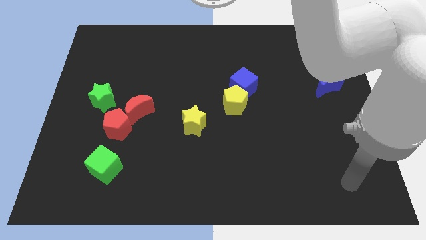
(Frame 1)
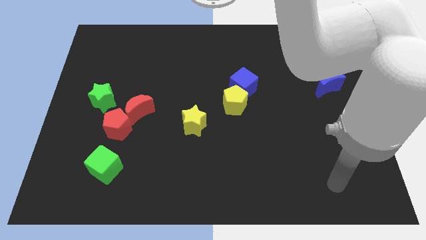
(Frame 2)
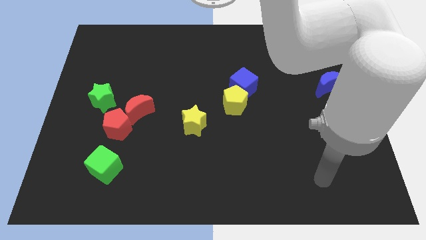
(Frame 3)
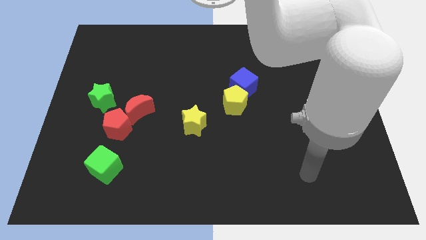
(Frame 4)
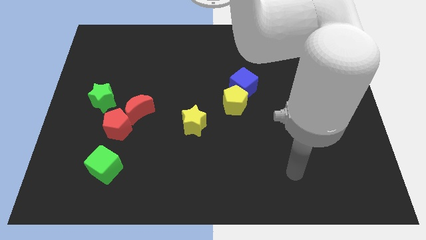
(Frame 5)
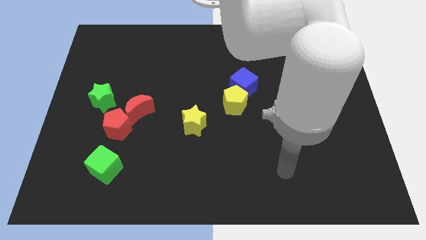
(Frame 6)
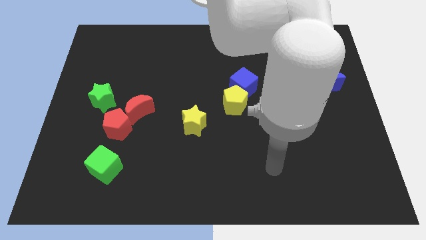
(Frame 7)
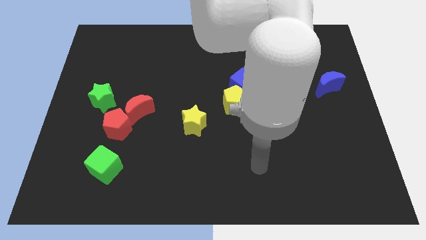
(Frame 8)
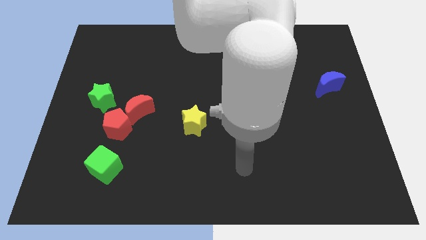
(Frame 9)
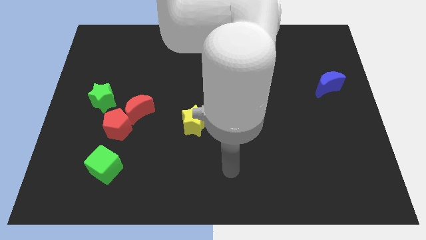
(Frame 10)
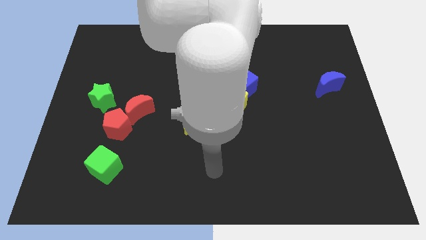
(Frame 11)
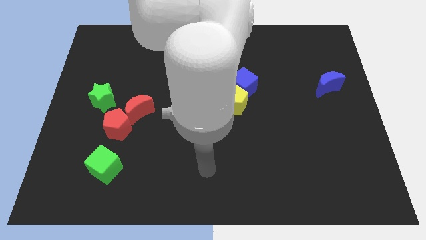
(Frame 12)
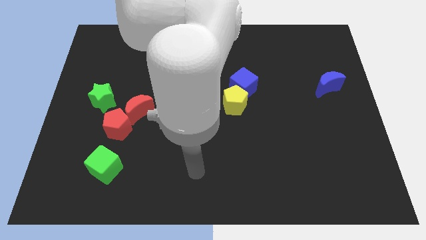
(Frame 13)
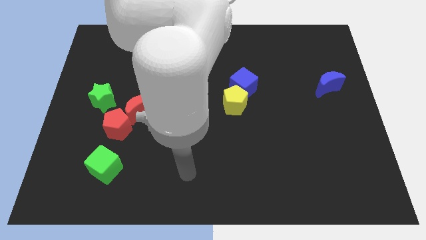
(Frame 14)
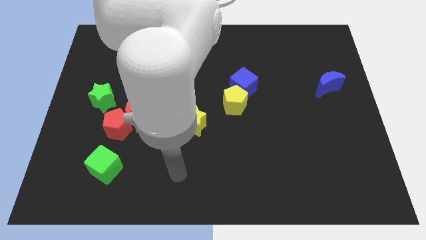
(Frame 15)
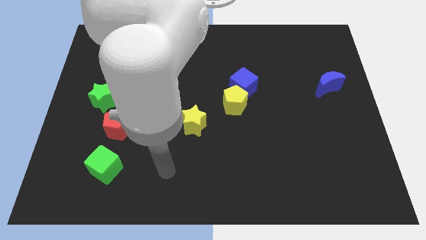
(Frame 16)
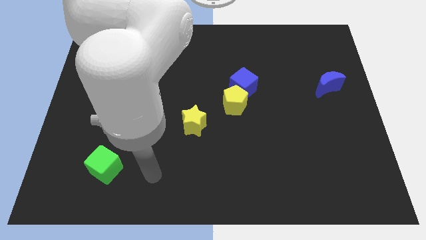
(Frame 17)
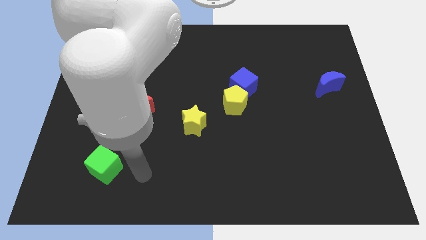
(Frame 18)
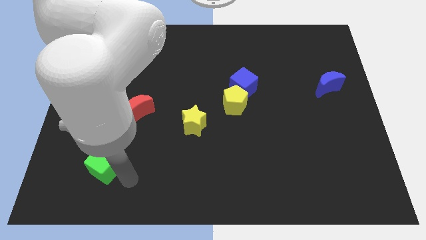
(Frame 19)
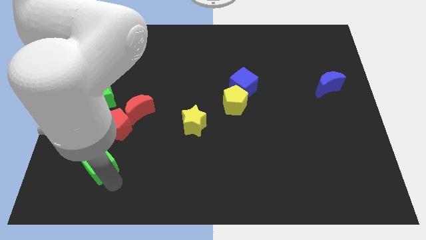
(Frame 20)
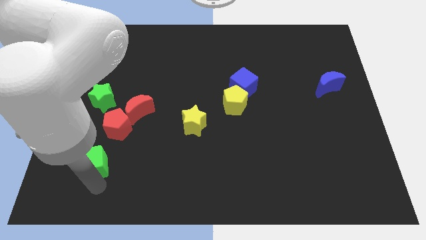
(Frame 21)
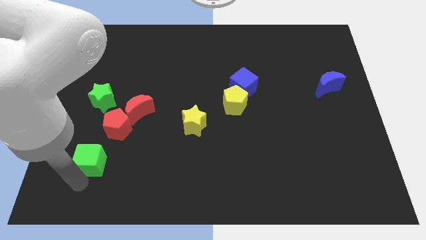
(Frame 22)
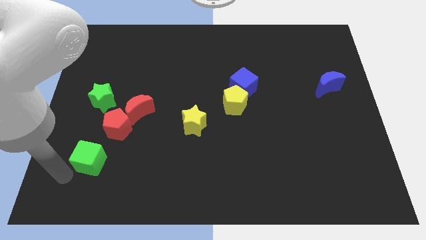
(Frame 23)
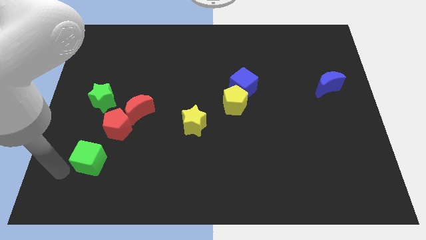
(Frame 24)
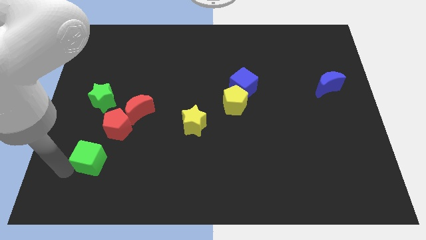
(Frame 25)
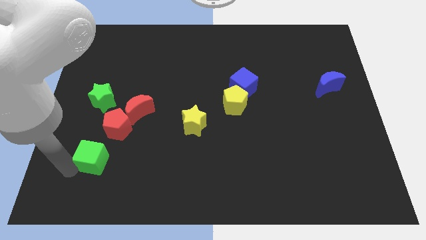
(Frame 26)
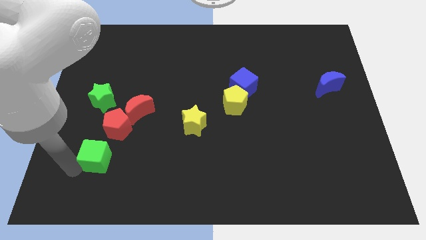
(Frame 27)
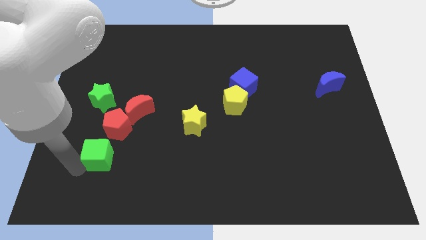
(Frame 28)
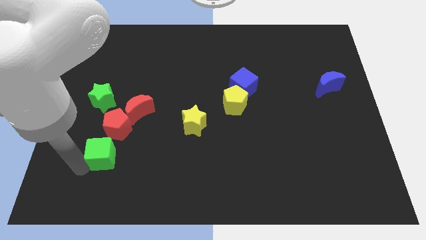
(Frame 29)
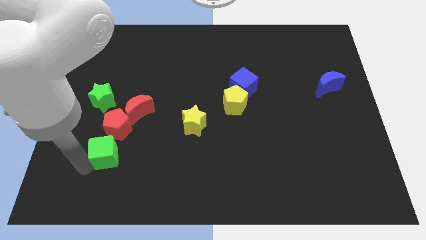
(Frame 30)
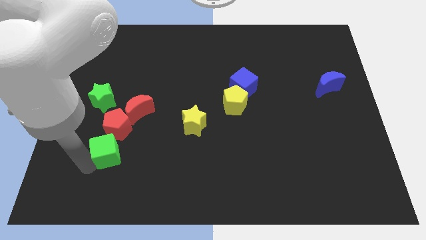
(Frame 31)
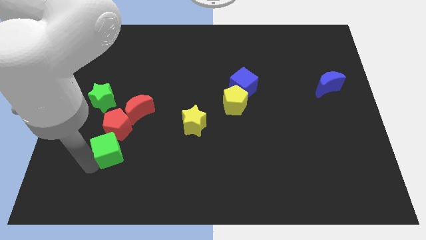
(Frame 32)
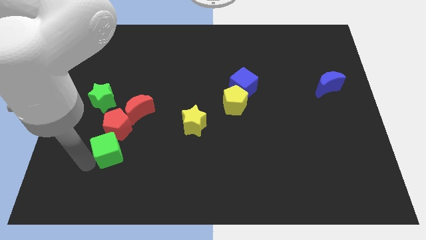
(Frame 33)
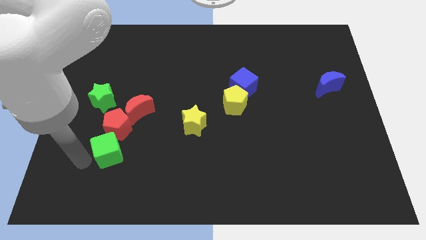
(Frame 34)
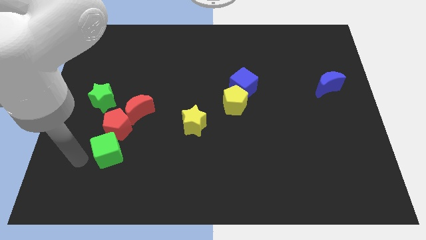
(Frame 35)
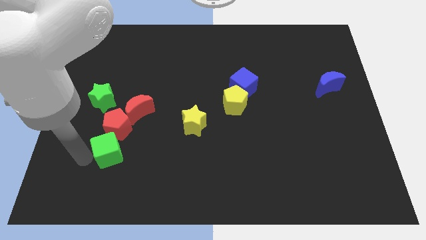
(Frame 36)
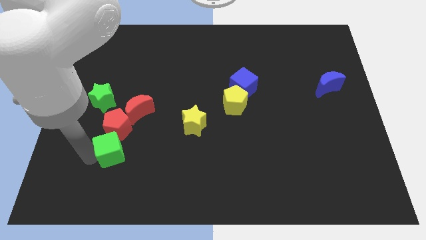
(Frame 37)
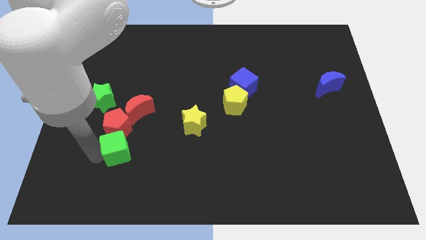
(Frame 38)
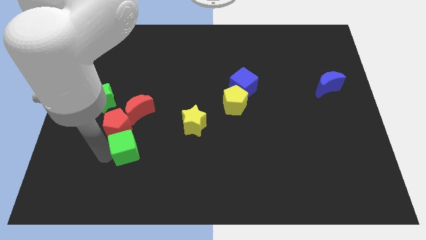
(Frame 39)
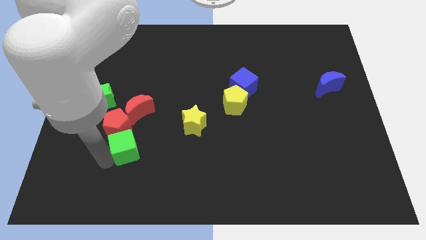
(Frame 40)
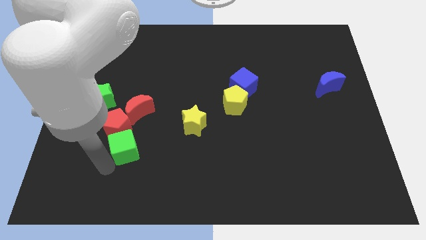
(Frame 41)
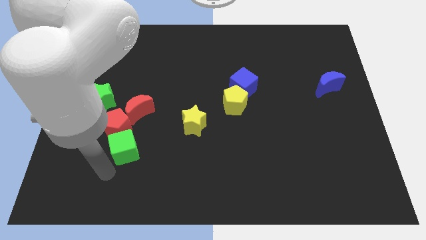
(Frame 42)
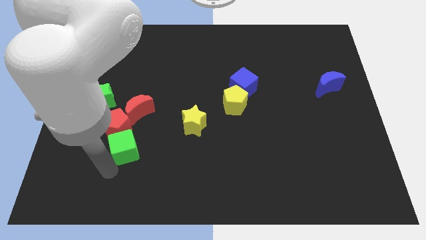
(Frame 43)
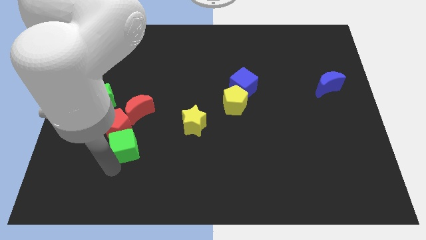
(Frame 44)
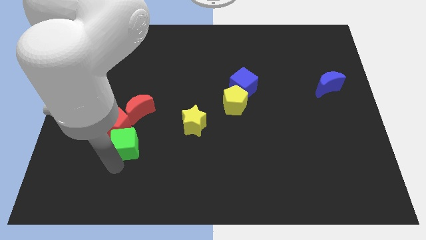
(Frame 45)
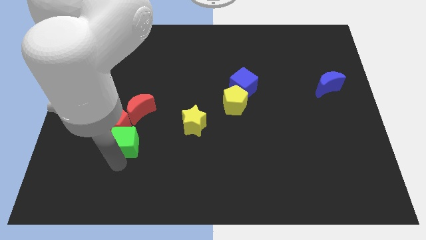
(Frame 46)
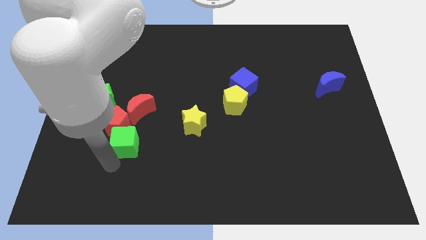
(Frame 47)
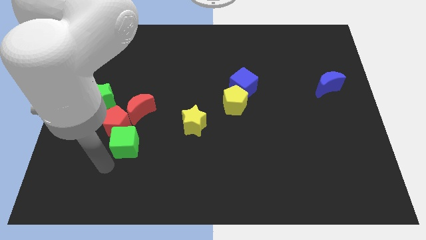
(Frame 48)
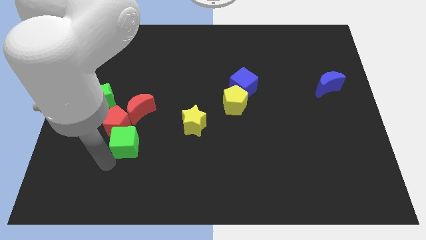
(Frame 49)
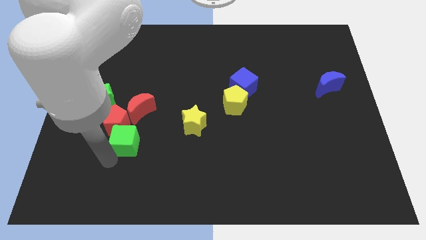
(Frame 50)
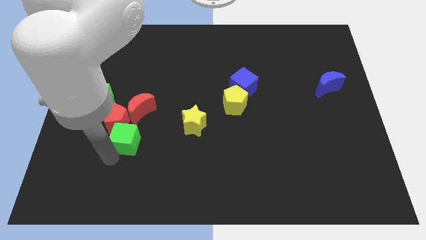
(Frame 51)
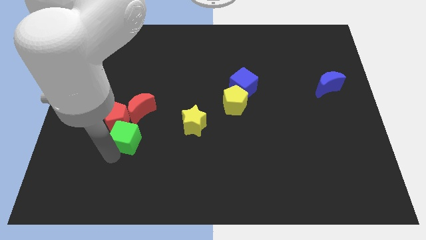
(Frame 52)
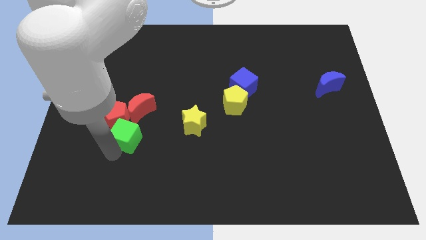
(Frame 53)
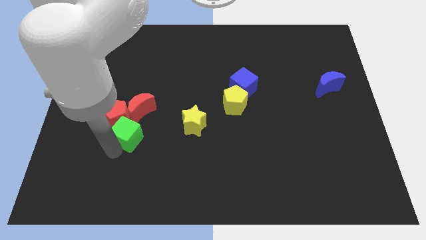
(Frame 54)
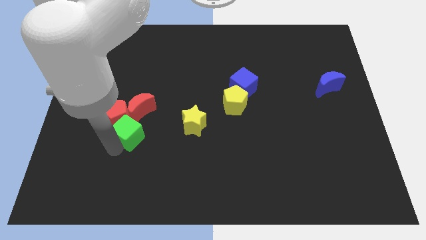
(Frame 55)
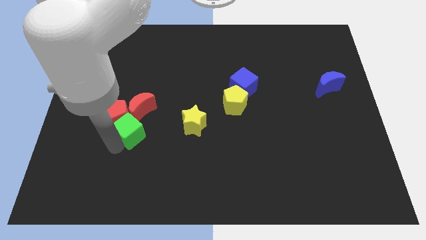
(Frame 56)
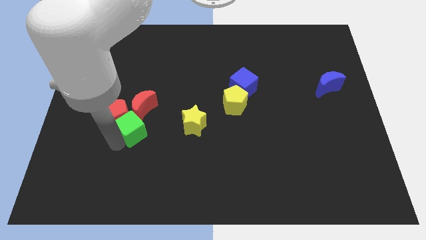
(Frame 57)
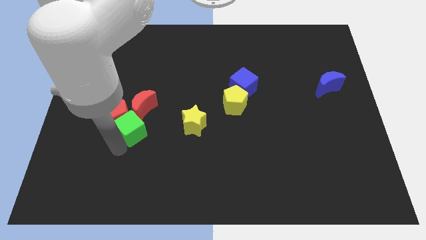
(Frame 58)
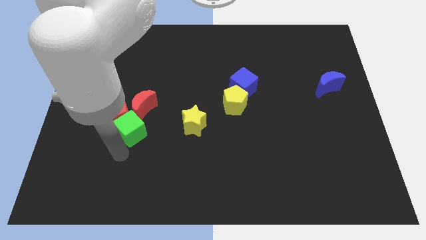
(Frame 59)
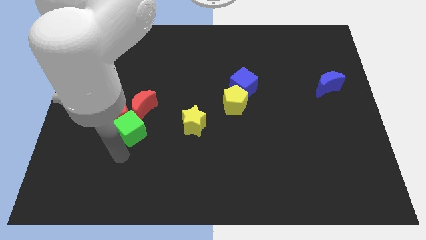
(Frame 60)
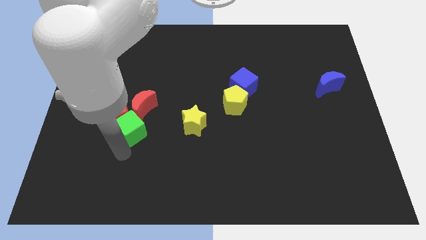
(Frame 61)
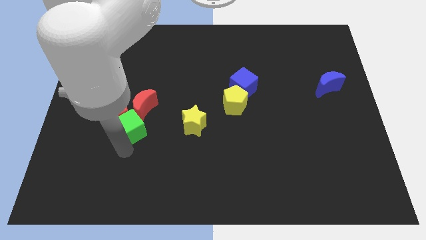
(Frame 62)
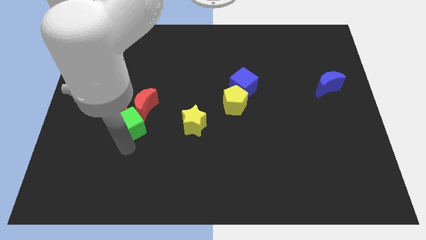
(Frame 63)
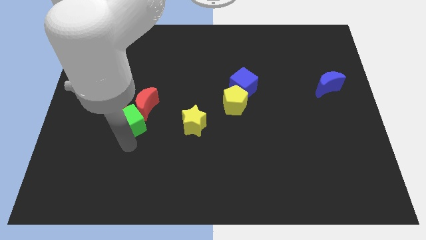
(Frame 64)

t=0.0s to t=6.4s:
push the green cube next to the red moon

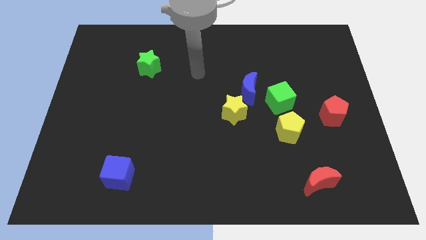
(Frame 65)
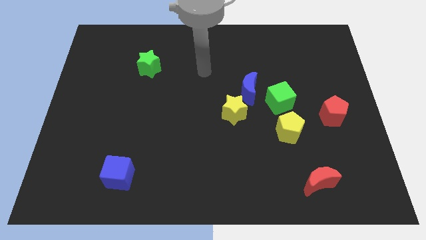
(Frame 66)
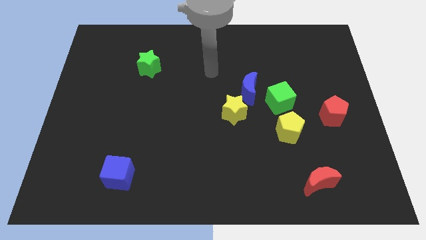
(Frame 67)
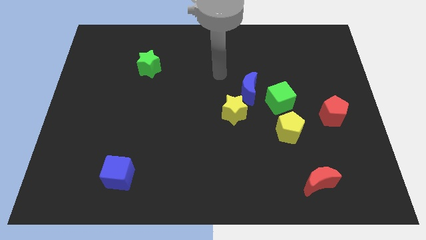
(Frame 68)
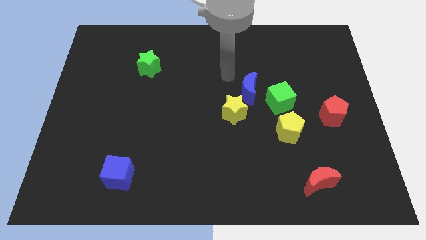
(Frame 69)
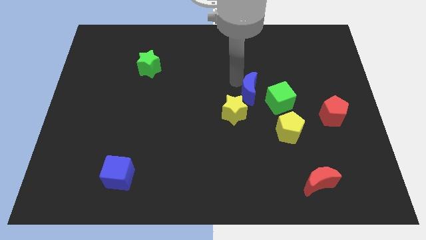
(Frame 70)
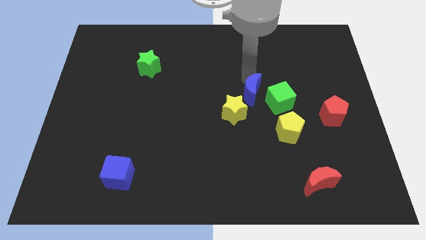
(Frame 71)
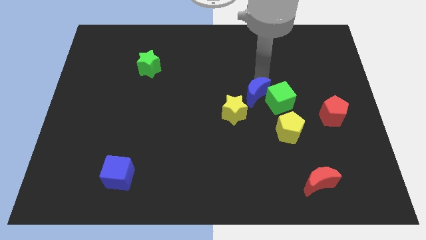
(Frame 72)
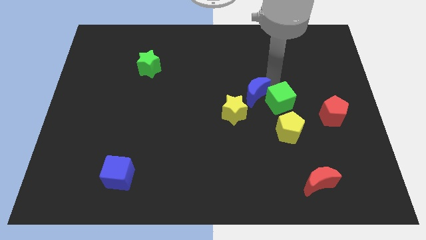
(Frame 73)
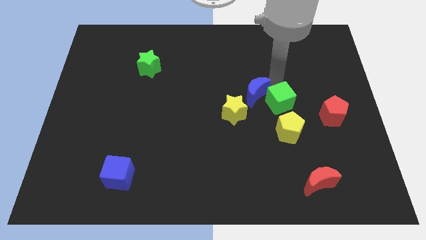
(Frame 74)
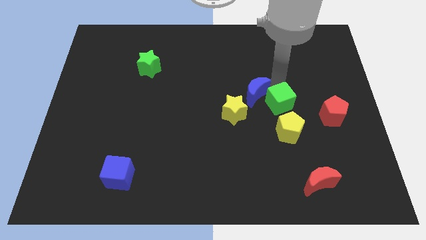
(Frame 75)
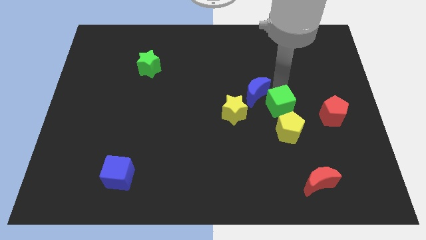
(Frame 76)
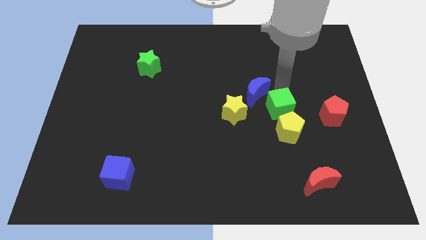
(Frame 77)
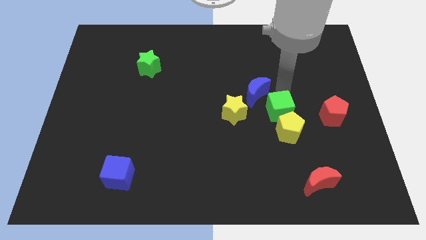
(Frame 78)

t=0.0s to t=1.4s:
put the green cube next to the yellow pentagon
